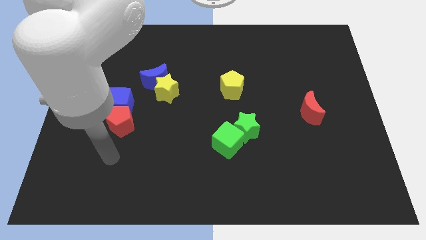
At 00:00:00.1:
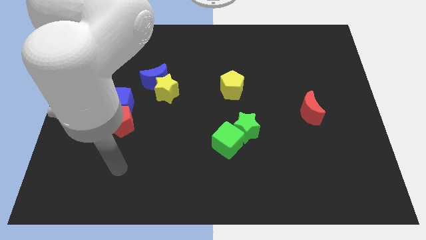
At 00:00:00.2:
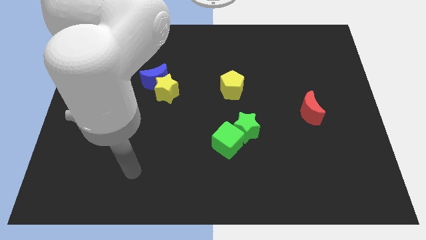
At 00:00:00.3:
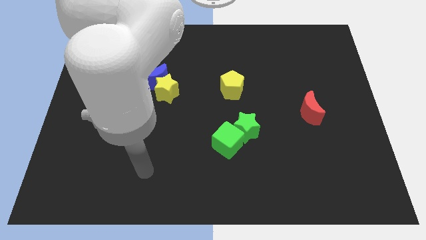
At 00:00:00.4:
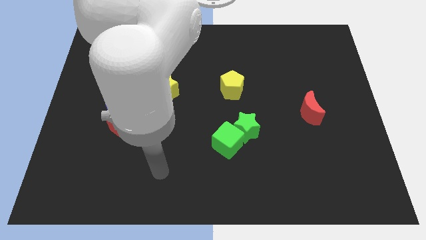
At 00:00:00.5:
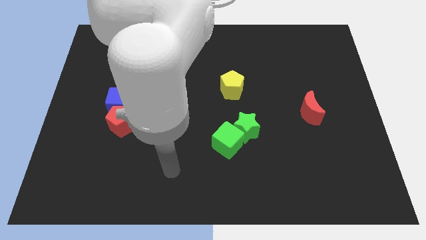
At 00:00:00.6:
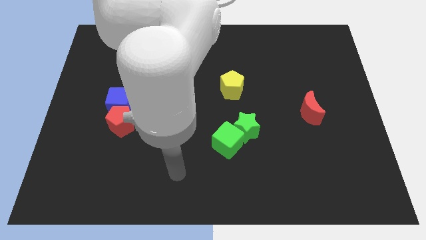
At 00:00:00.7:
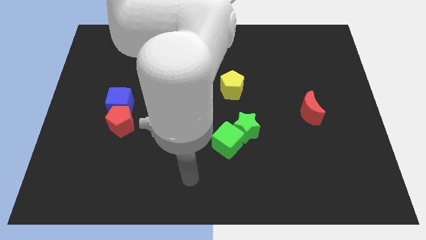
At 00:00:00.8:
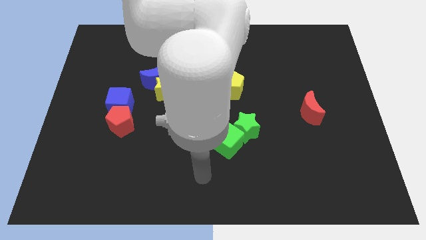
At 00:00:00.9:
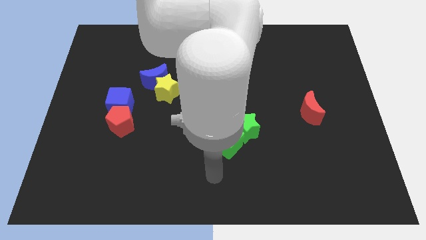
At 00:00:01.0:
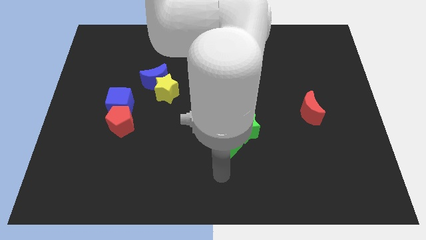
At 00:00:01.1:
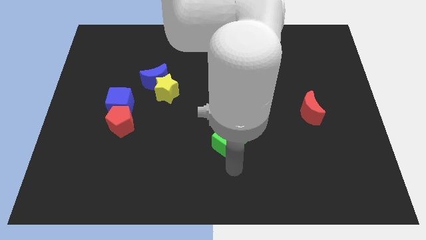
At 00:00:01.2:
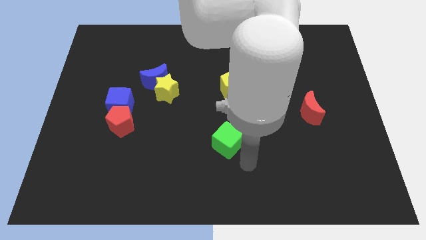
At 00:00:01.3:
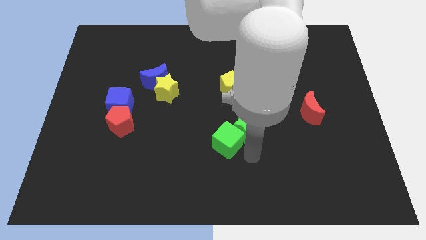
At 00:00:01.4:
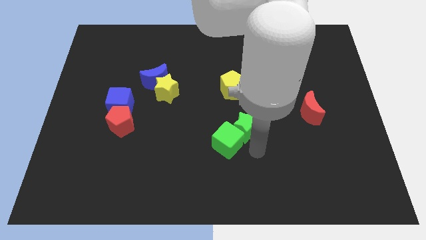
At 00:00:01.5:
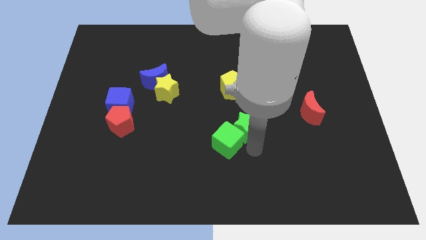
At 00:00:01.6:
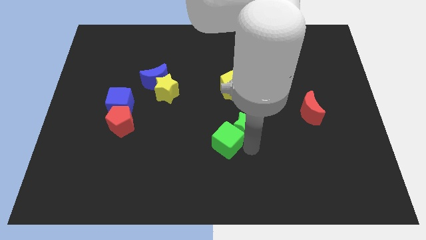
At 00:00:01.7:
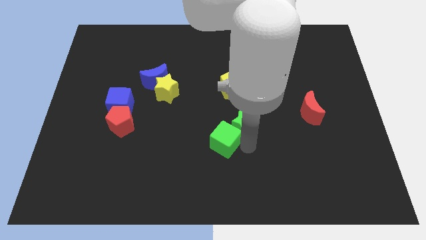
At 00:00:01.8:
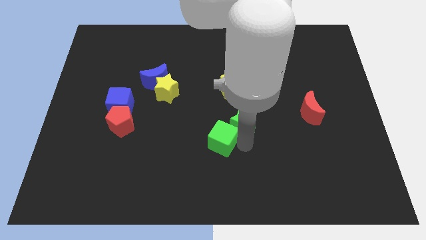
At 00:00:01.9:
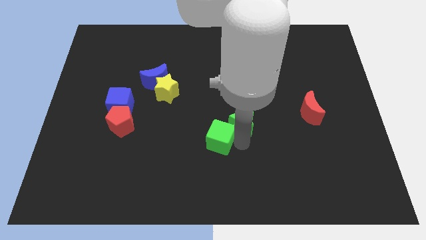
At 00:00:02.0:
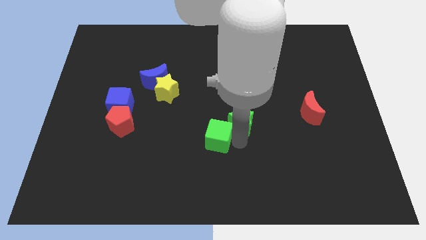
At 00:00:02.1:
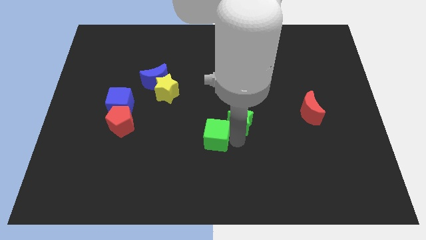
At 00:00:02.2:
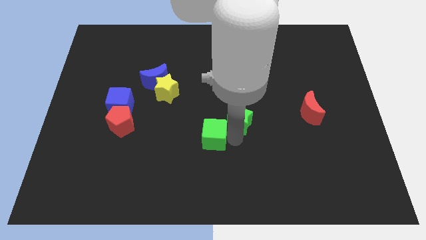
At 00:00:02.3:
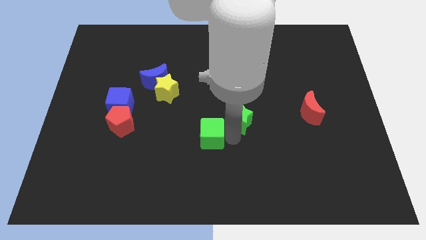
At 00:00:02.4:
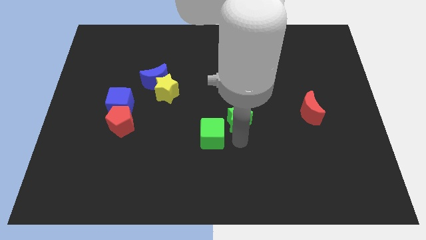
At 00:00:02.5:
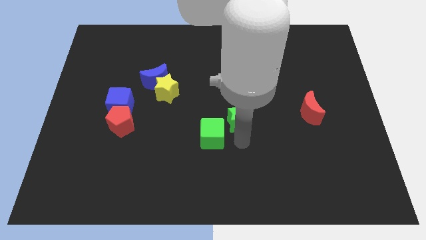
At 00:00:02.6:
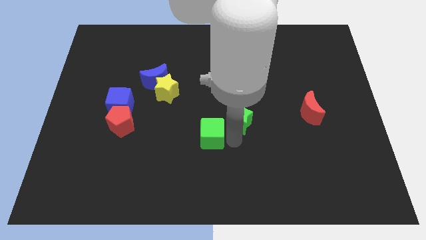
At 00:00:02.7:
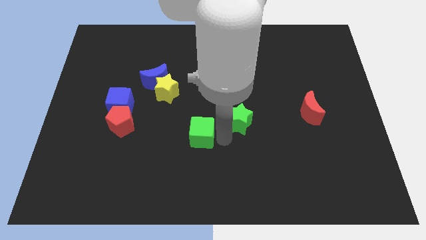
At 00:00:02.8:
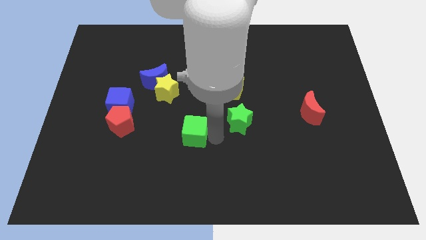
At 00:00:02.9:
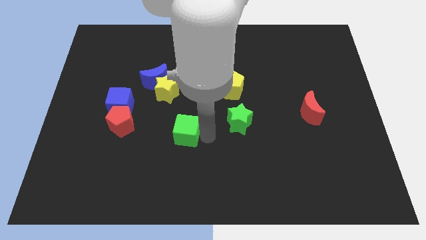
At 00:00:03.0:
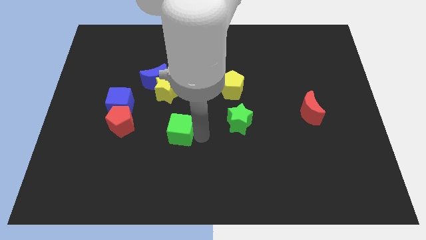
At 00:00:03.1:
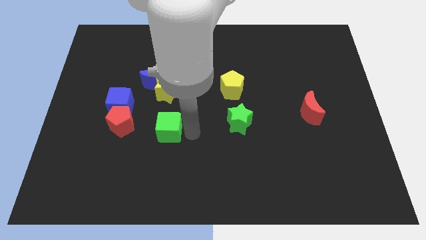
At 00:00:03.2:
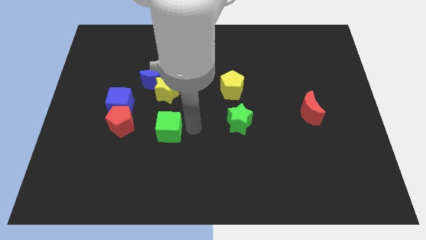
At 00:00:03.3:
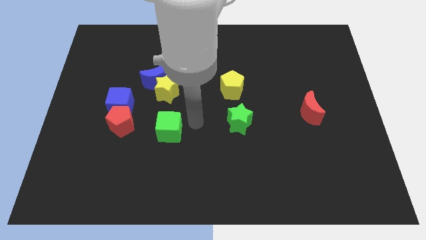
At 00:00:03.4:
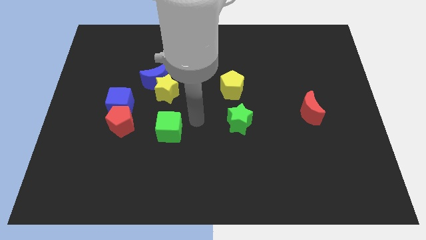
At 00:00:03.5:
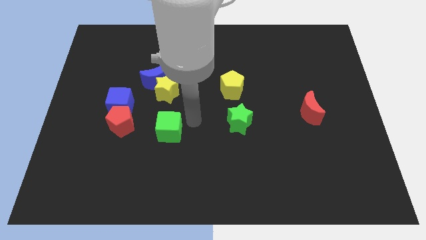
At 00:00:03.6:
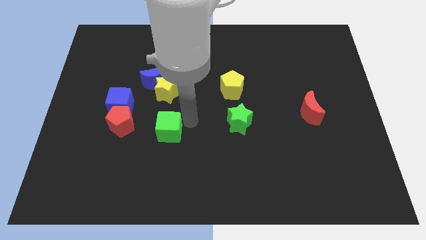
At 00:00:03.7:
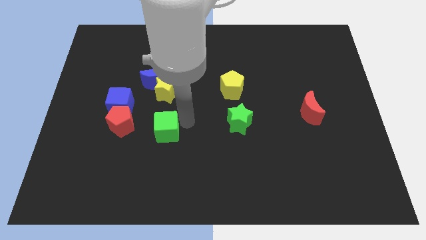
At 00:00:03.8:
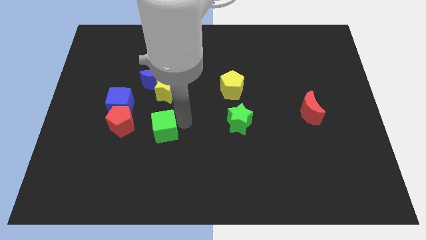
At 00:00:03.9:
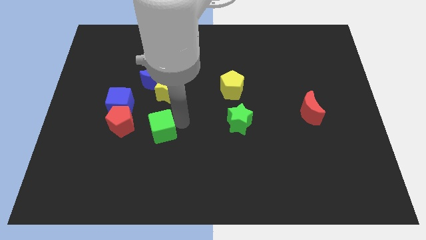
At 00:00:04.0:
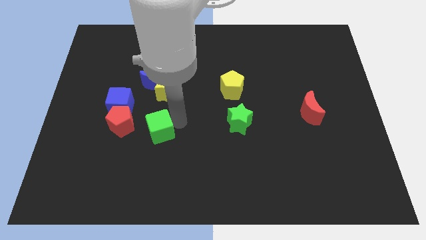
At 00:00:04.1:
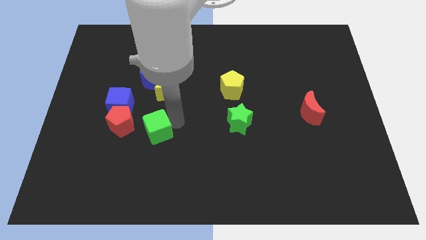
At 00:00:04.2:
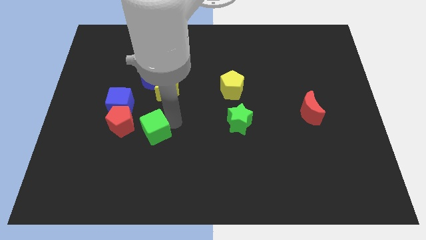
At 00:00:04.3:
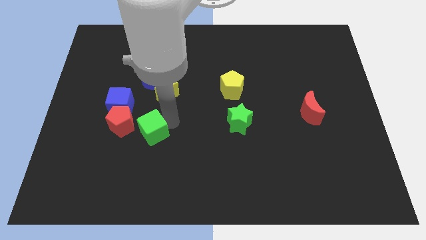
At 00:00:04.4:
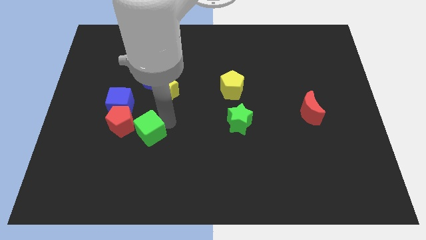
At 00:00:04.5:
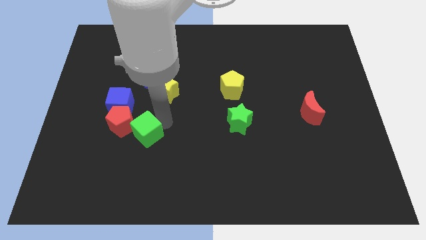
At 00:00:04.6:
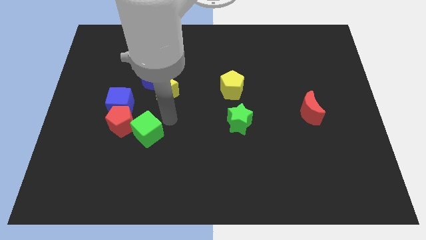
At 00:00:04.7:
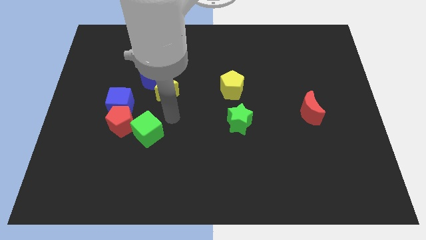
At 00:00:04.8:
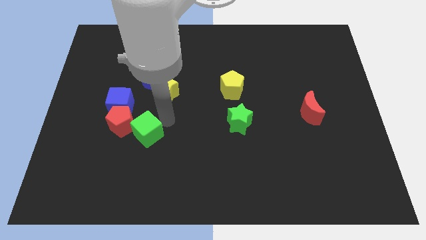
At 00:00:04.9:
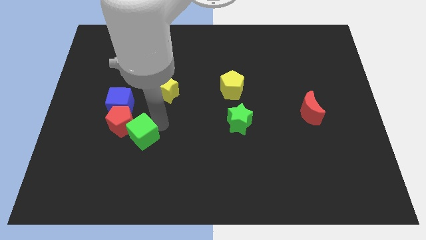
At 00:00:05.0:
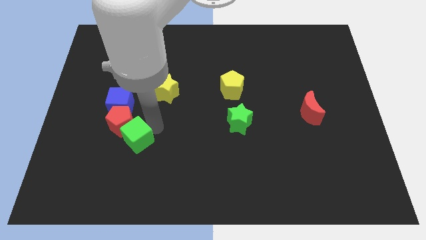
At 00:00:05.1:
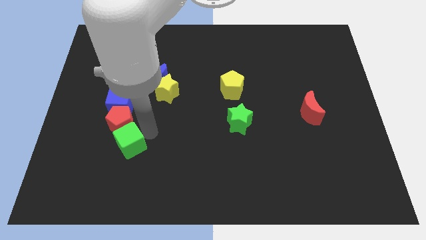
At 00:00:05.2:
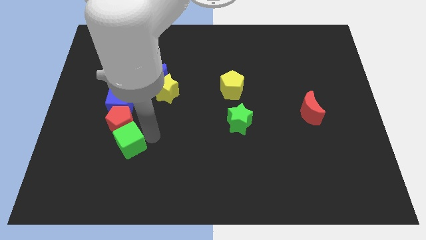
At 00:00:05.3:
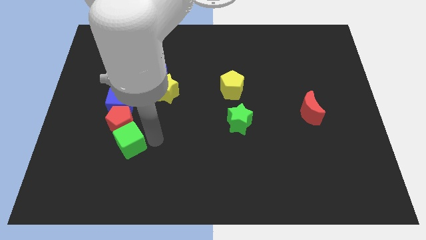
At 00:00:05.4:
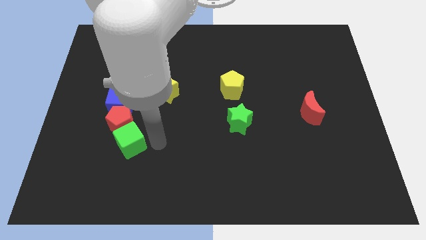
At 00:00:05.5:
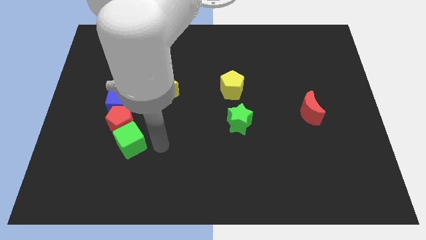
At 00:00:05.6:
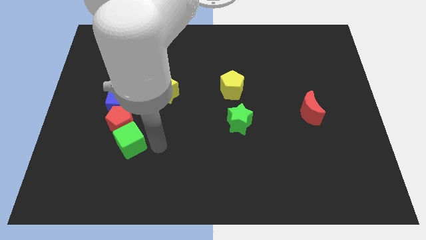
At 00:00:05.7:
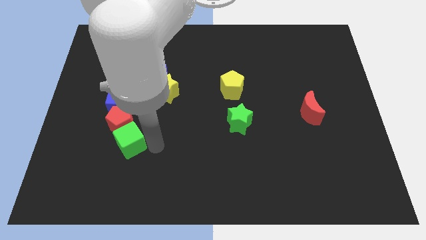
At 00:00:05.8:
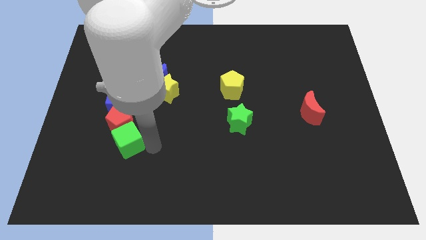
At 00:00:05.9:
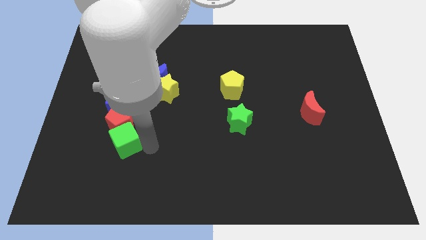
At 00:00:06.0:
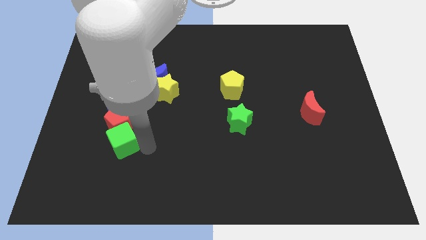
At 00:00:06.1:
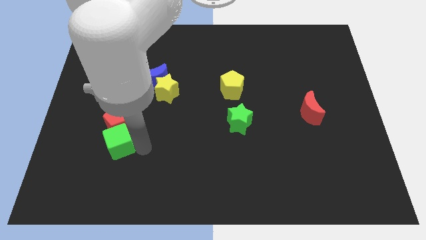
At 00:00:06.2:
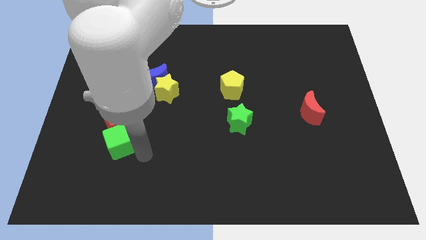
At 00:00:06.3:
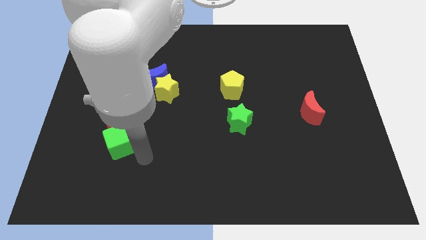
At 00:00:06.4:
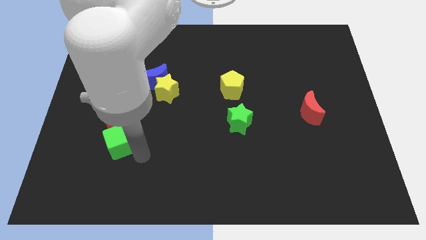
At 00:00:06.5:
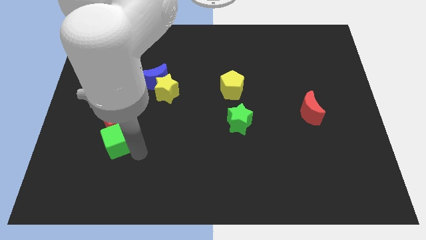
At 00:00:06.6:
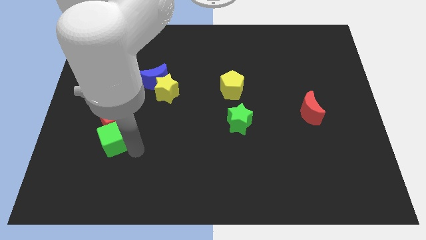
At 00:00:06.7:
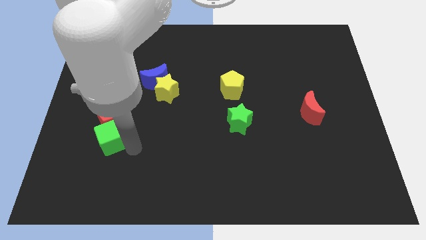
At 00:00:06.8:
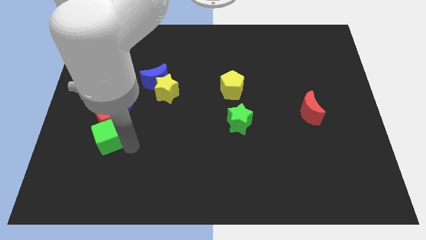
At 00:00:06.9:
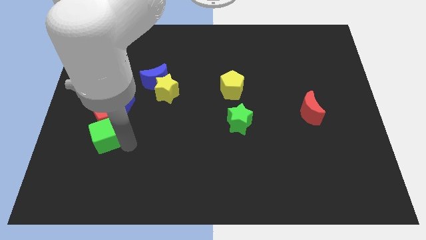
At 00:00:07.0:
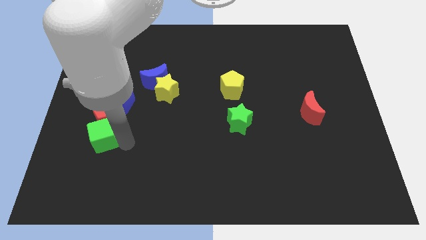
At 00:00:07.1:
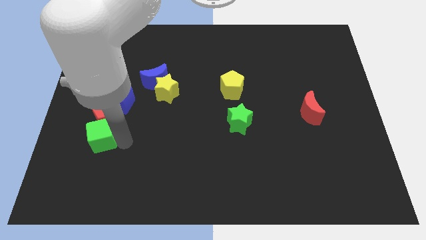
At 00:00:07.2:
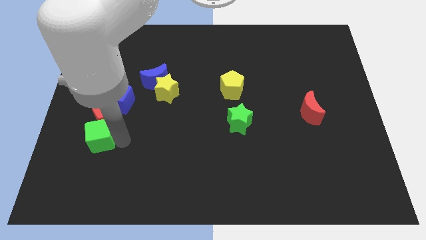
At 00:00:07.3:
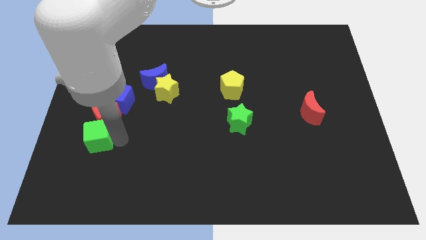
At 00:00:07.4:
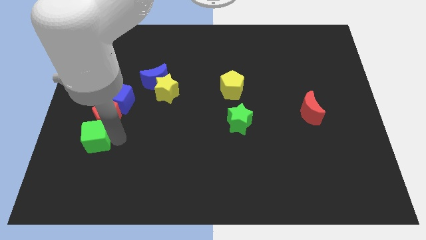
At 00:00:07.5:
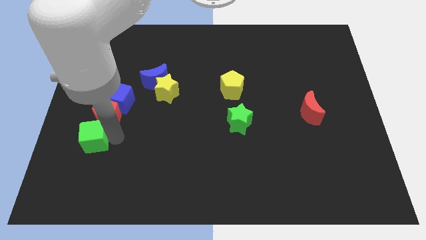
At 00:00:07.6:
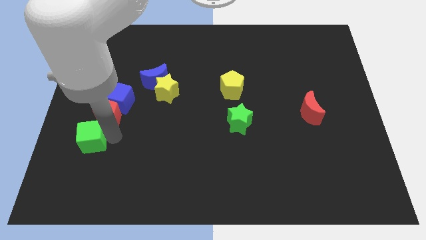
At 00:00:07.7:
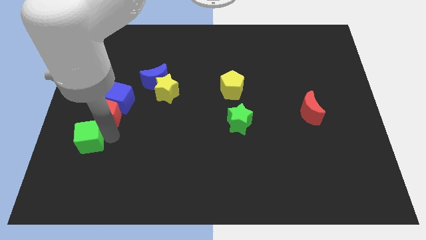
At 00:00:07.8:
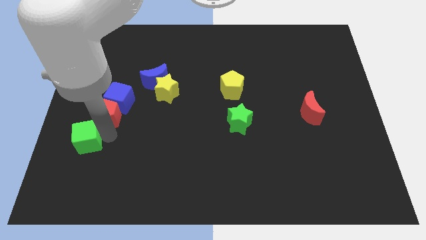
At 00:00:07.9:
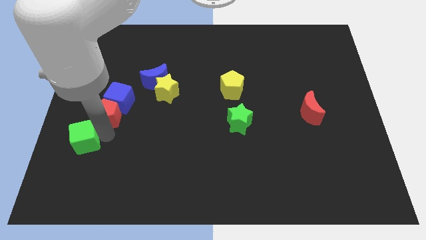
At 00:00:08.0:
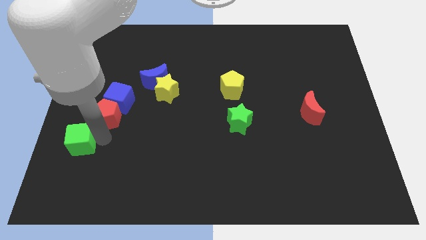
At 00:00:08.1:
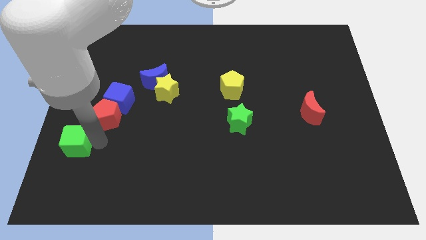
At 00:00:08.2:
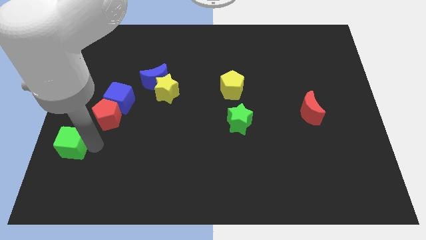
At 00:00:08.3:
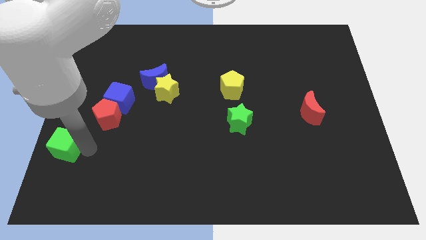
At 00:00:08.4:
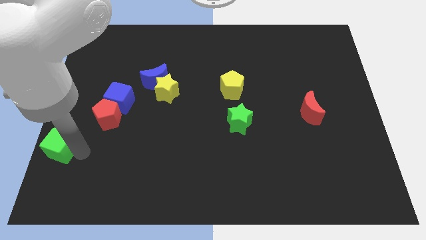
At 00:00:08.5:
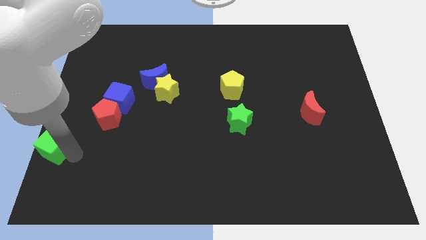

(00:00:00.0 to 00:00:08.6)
slide the green cube to the center left
